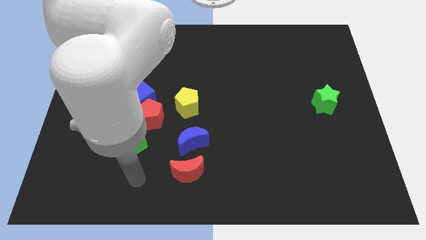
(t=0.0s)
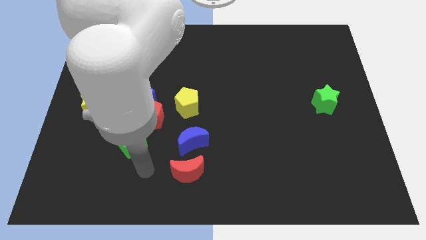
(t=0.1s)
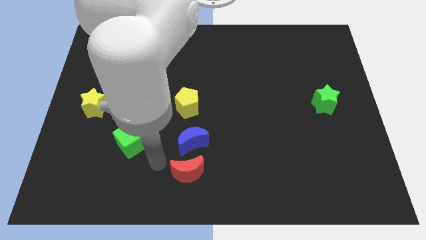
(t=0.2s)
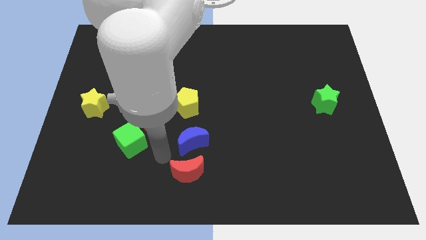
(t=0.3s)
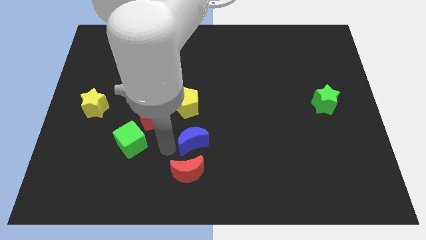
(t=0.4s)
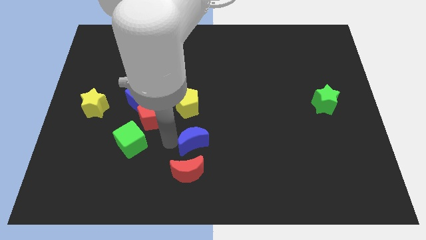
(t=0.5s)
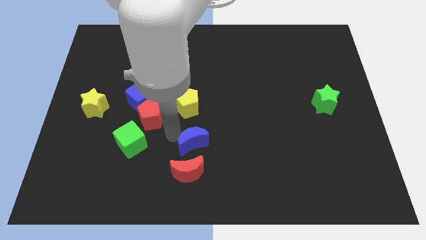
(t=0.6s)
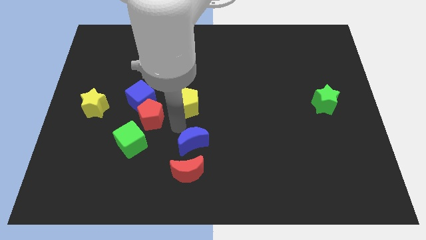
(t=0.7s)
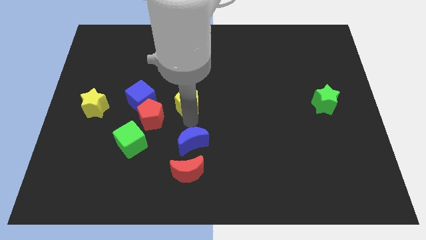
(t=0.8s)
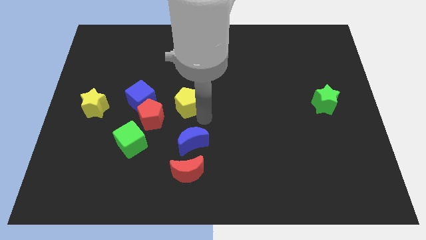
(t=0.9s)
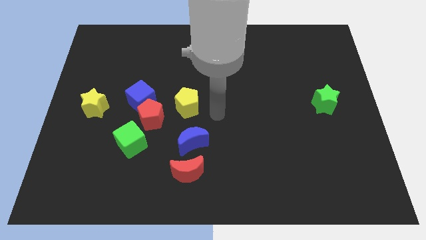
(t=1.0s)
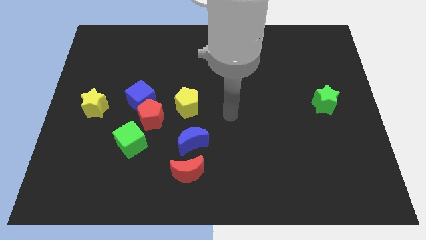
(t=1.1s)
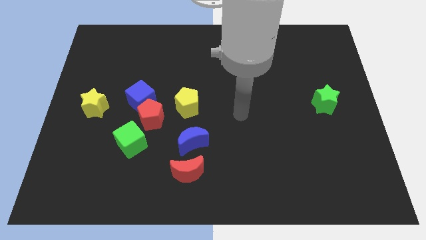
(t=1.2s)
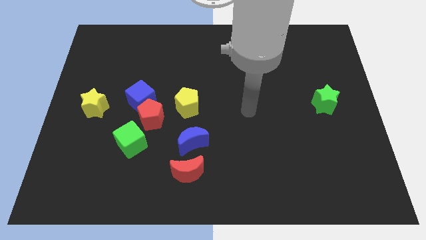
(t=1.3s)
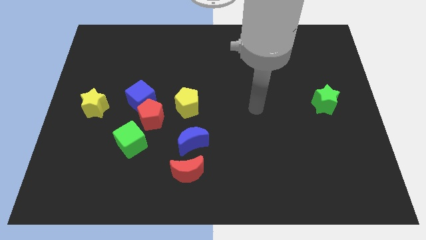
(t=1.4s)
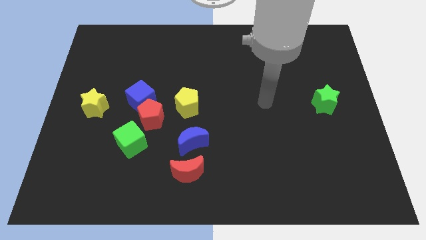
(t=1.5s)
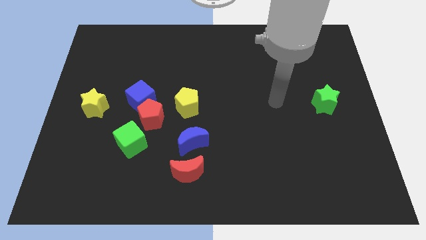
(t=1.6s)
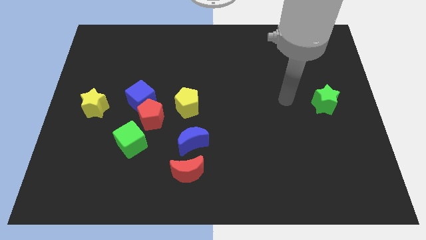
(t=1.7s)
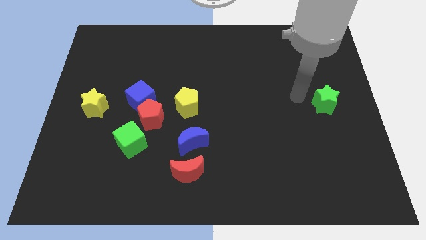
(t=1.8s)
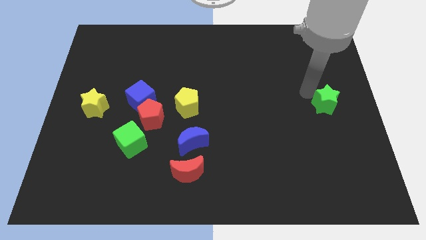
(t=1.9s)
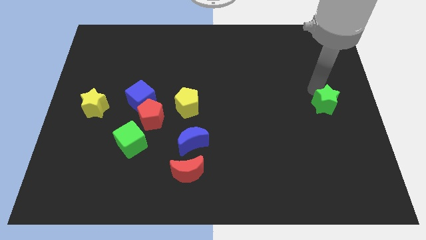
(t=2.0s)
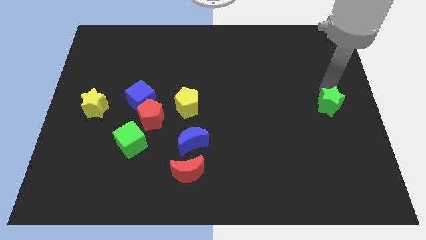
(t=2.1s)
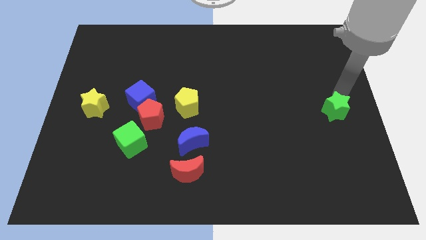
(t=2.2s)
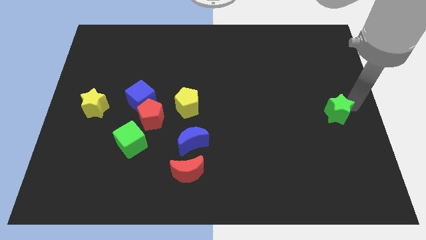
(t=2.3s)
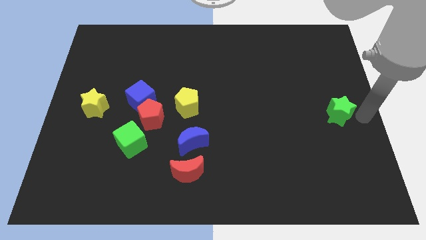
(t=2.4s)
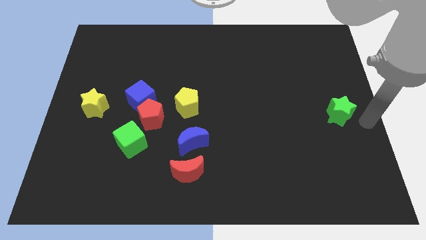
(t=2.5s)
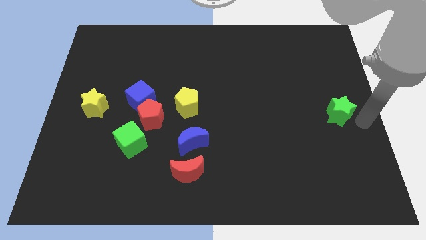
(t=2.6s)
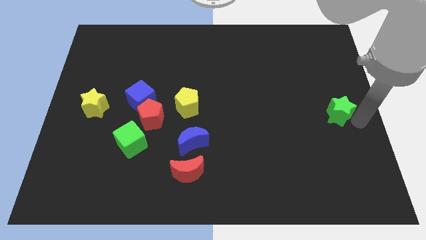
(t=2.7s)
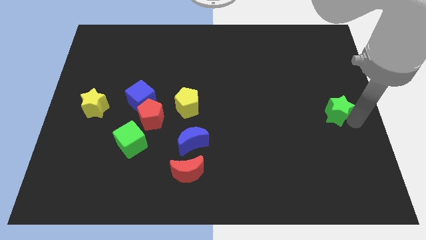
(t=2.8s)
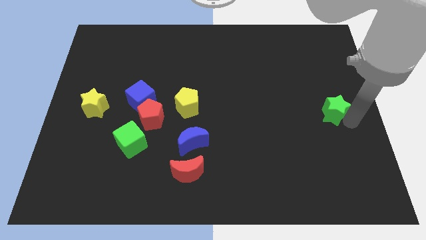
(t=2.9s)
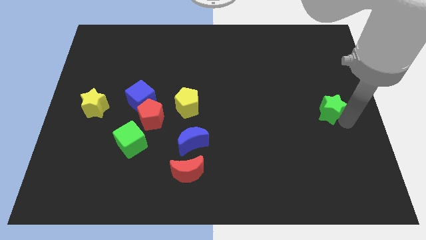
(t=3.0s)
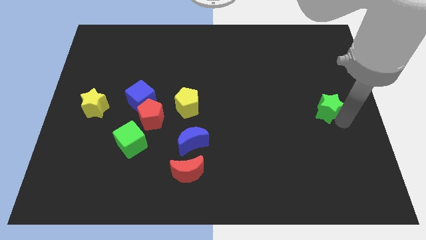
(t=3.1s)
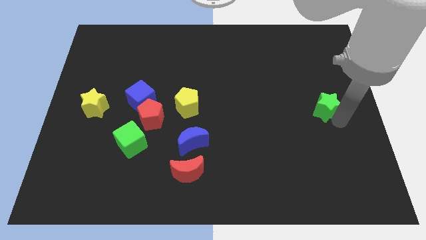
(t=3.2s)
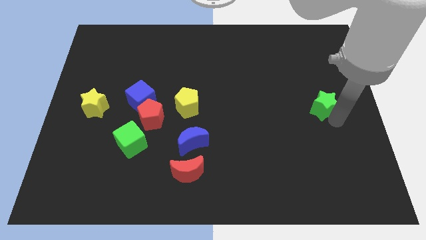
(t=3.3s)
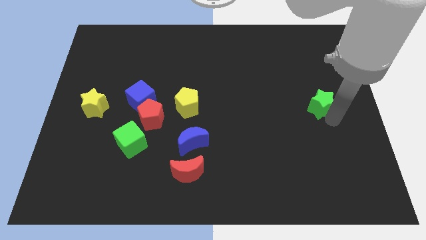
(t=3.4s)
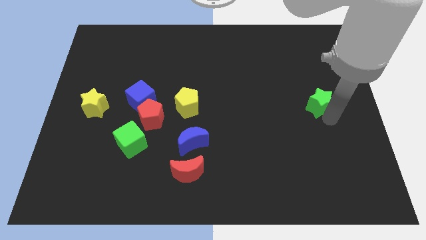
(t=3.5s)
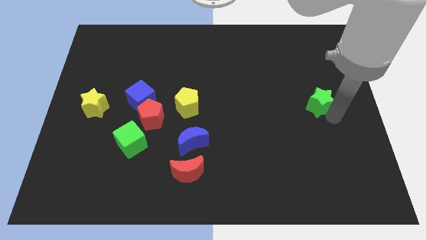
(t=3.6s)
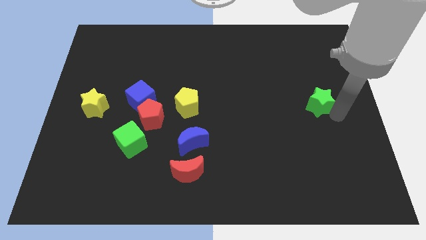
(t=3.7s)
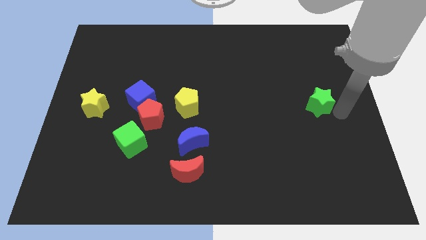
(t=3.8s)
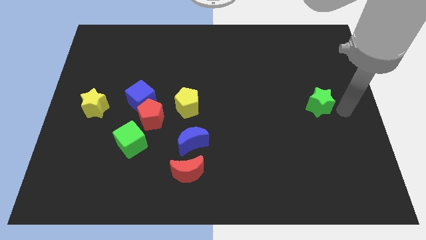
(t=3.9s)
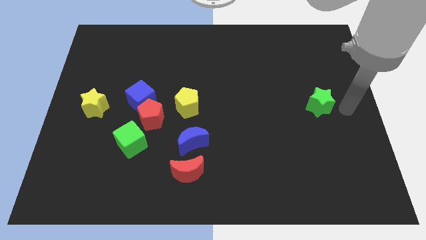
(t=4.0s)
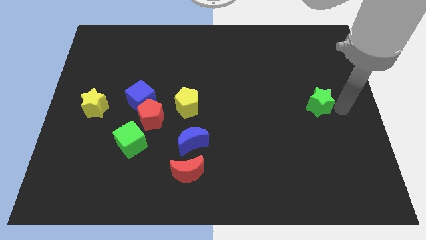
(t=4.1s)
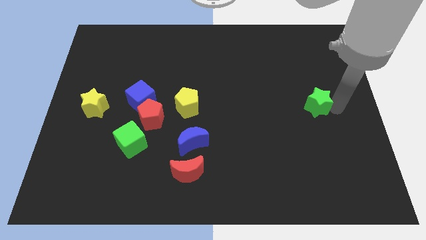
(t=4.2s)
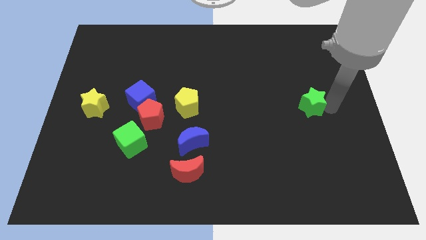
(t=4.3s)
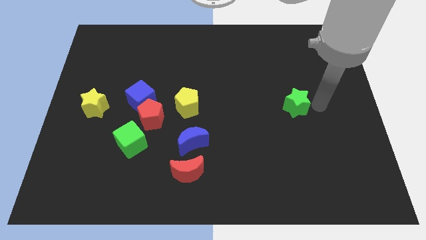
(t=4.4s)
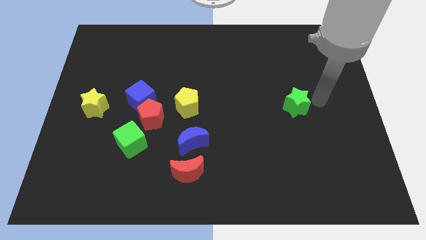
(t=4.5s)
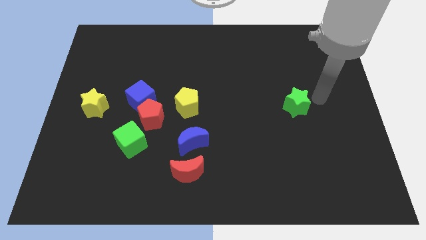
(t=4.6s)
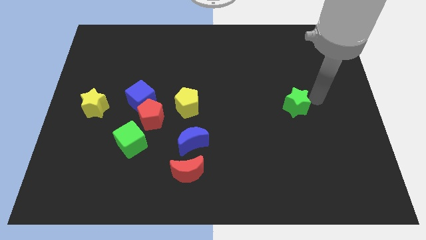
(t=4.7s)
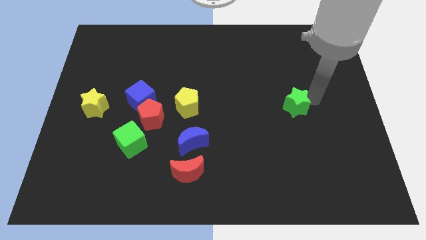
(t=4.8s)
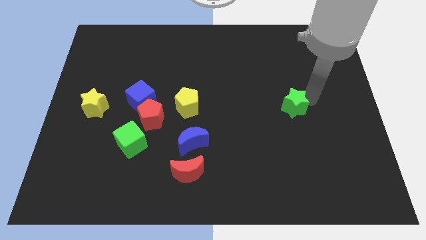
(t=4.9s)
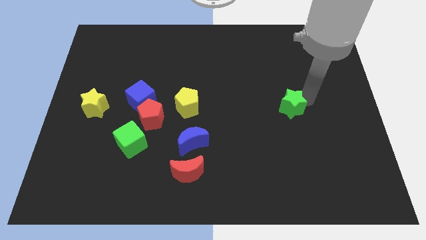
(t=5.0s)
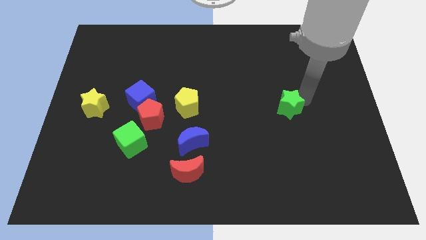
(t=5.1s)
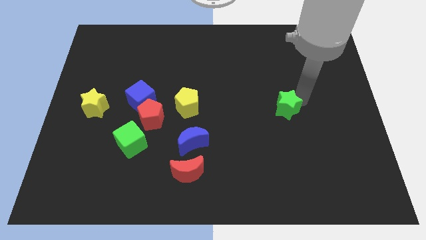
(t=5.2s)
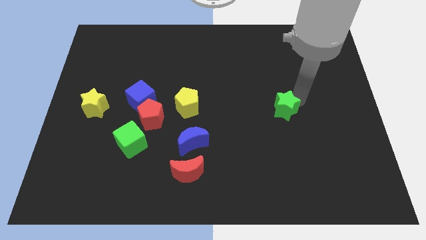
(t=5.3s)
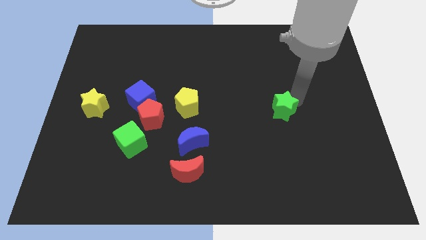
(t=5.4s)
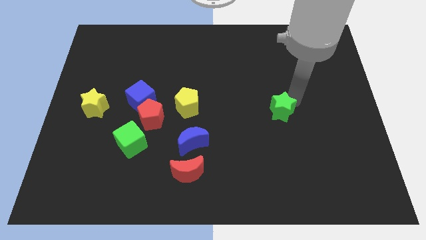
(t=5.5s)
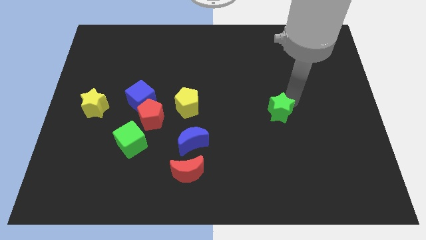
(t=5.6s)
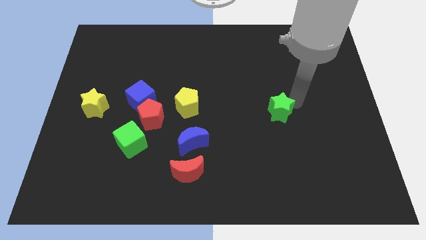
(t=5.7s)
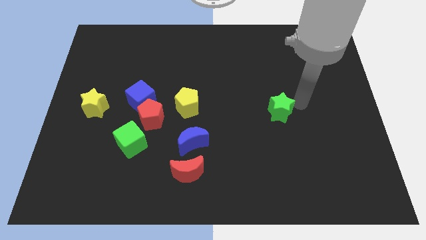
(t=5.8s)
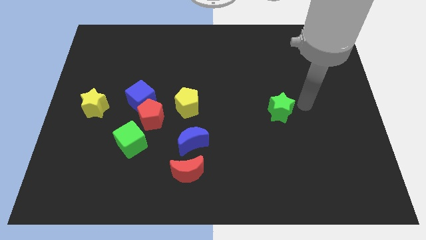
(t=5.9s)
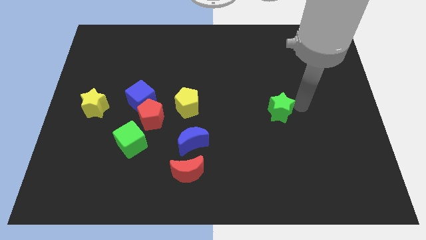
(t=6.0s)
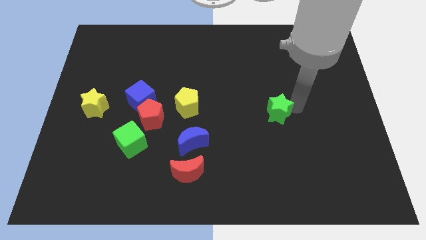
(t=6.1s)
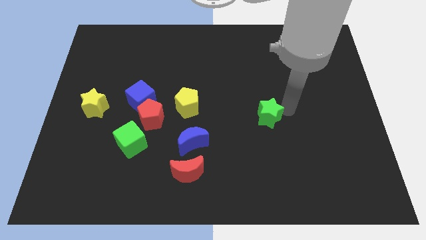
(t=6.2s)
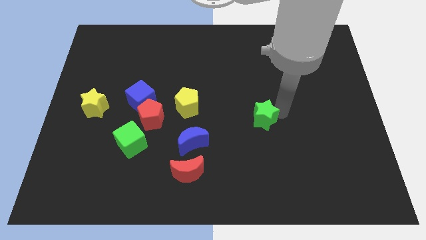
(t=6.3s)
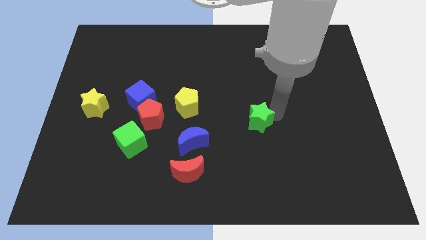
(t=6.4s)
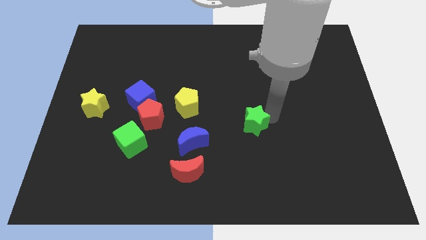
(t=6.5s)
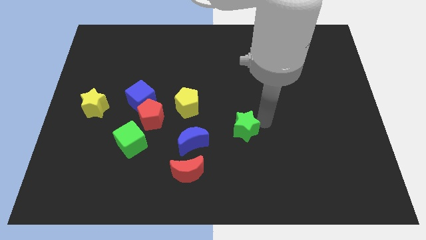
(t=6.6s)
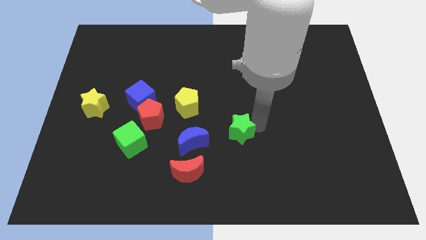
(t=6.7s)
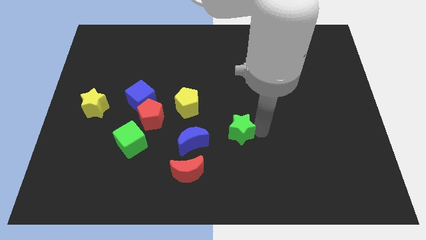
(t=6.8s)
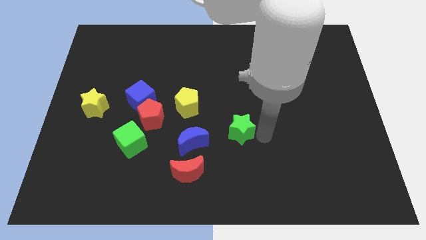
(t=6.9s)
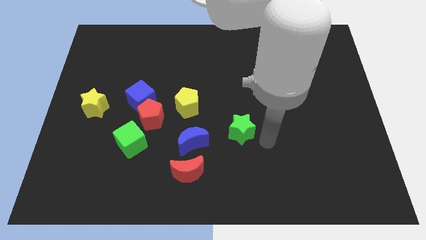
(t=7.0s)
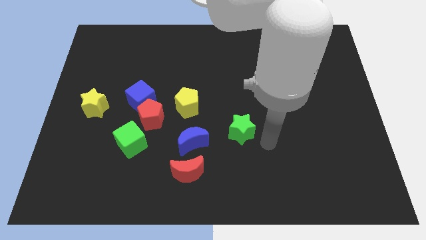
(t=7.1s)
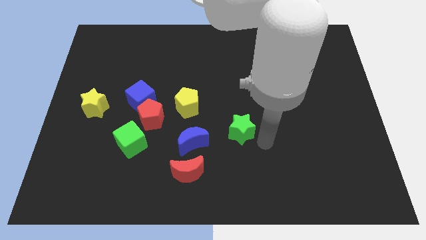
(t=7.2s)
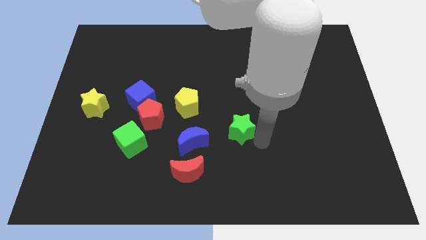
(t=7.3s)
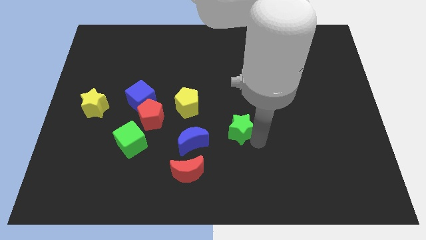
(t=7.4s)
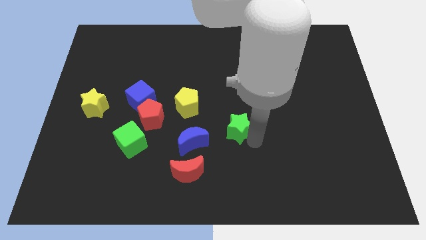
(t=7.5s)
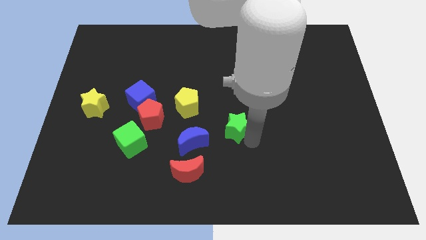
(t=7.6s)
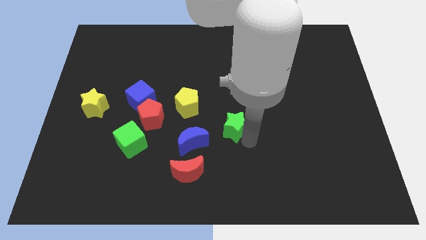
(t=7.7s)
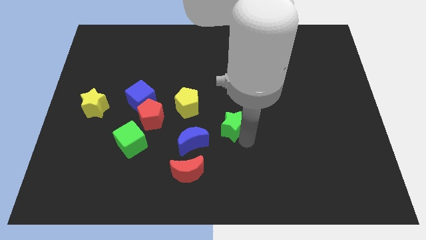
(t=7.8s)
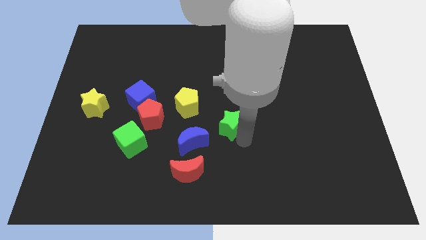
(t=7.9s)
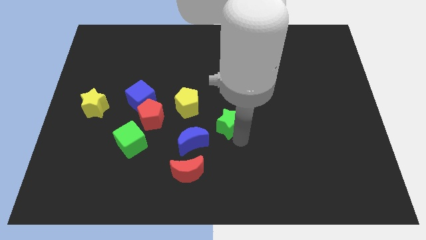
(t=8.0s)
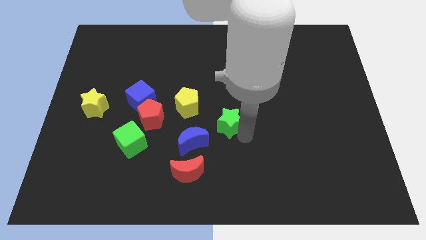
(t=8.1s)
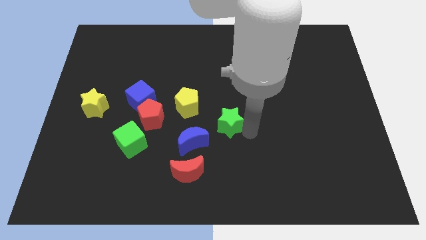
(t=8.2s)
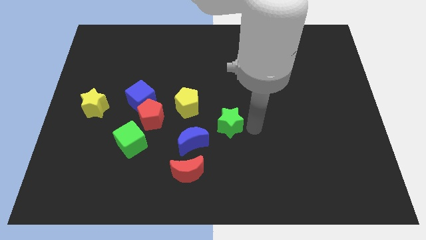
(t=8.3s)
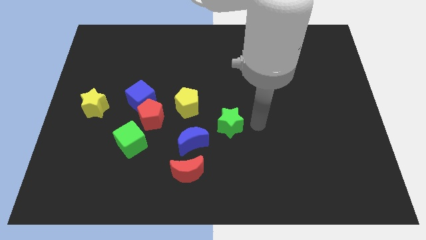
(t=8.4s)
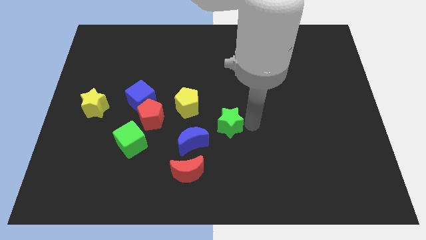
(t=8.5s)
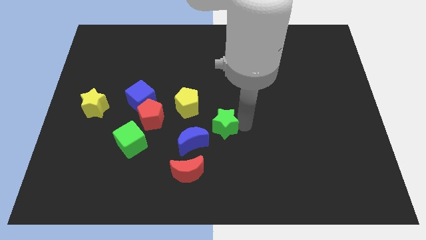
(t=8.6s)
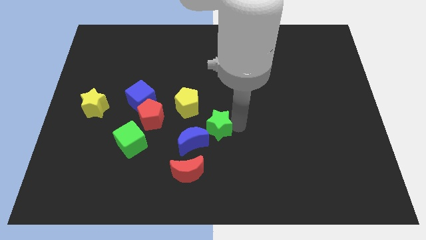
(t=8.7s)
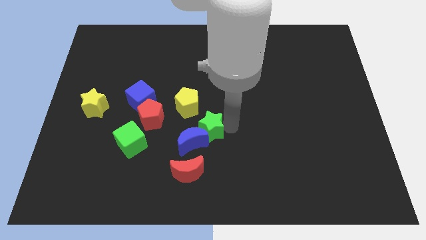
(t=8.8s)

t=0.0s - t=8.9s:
slide the green star to the top of the red moon
